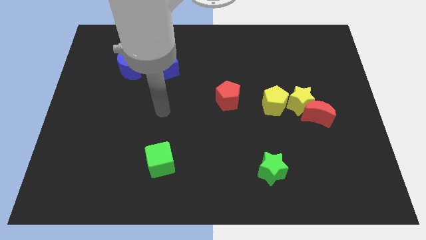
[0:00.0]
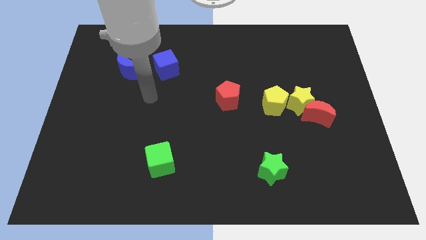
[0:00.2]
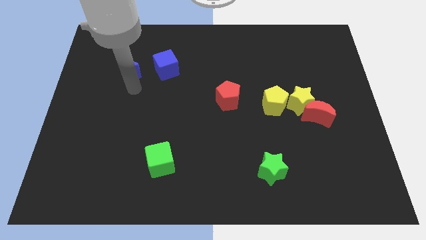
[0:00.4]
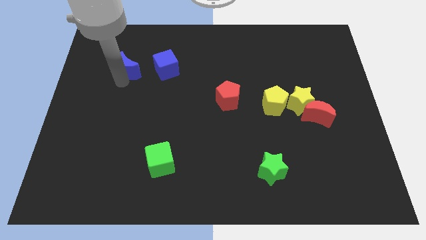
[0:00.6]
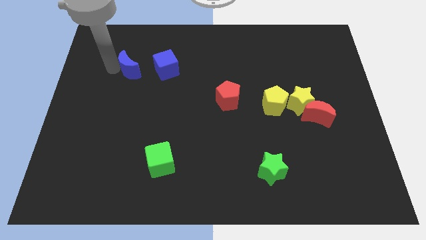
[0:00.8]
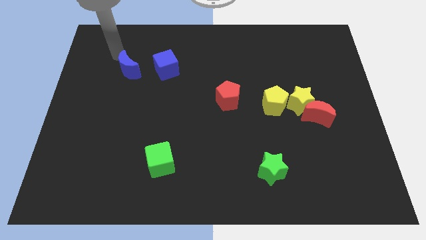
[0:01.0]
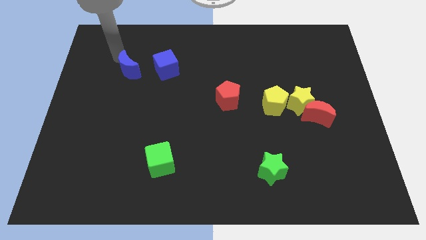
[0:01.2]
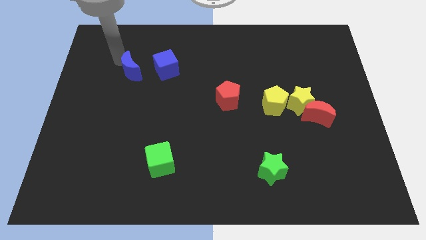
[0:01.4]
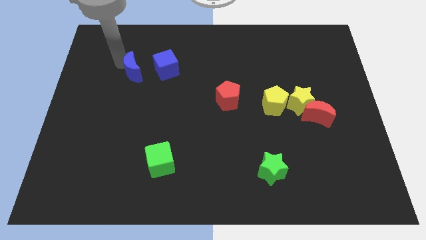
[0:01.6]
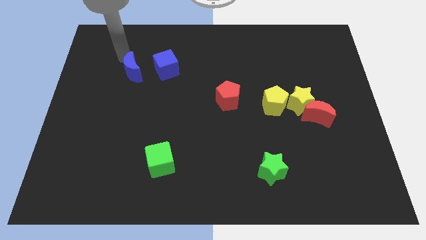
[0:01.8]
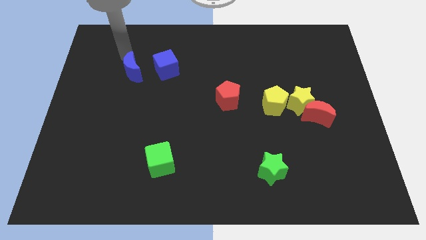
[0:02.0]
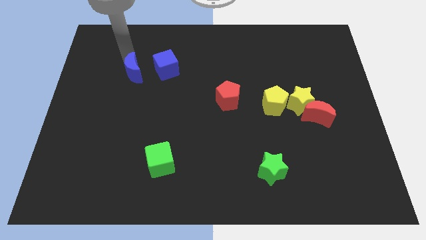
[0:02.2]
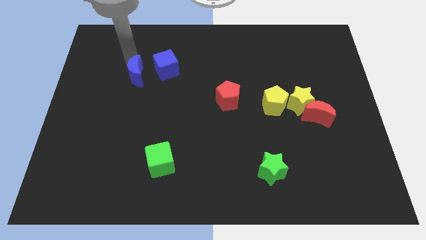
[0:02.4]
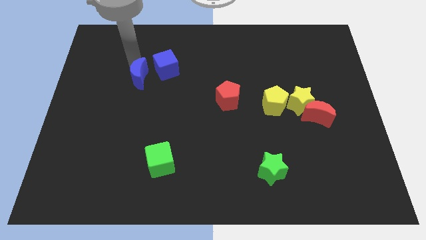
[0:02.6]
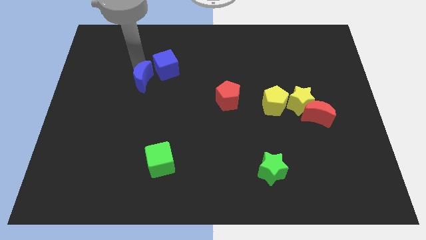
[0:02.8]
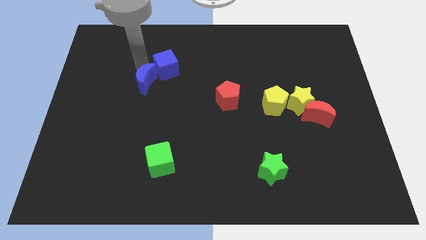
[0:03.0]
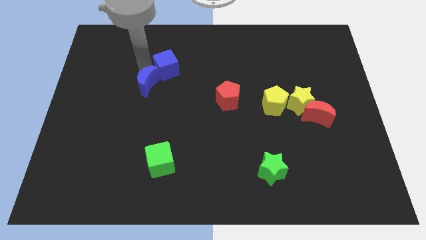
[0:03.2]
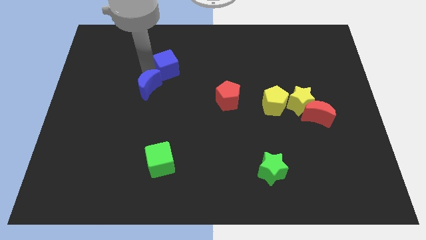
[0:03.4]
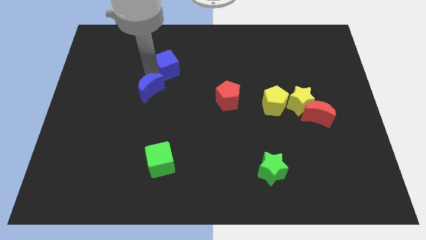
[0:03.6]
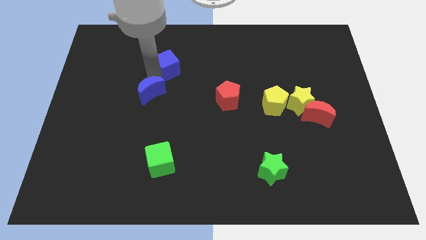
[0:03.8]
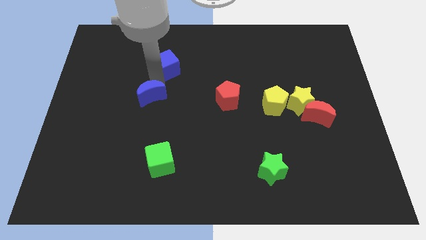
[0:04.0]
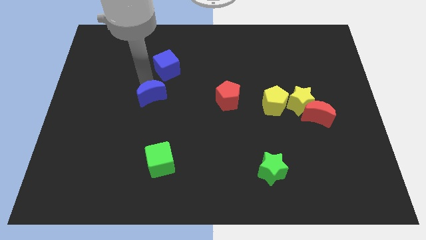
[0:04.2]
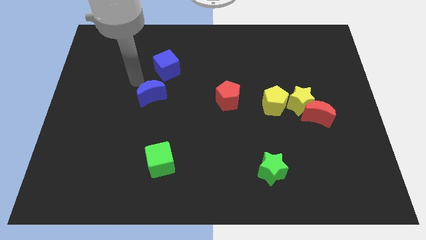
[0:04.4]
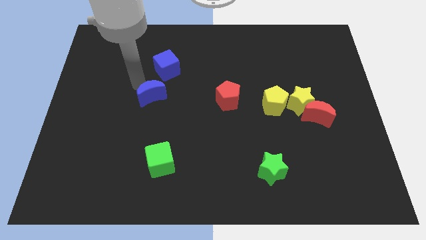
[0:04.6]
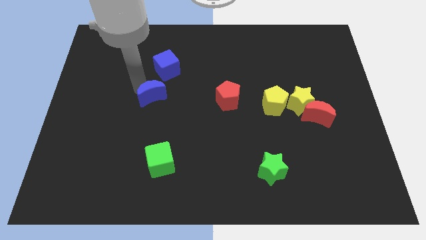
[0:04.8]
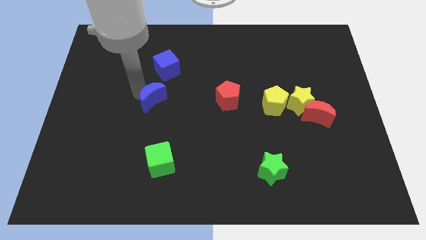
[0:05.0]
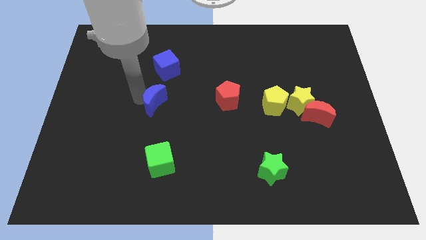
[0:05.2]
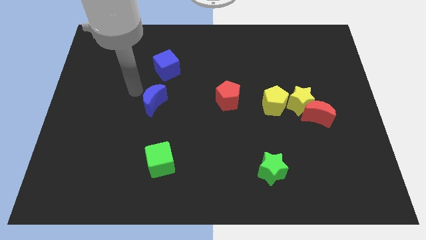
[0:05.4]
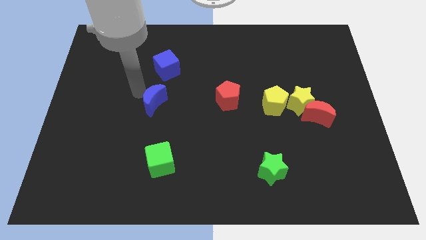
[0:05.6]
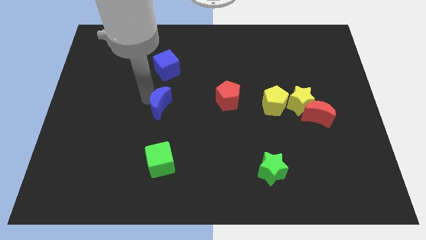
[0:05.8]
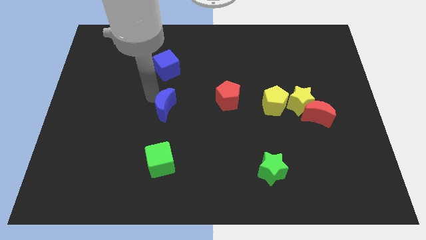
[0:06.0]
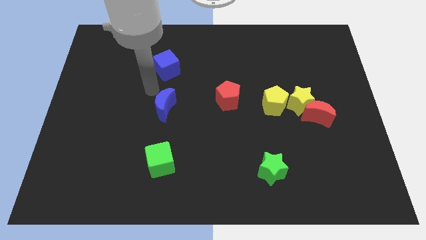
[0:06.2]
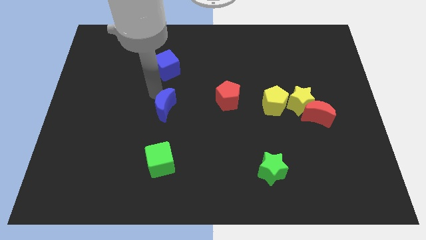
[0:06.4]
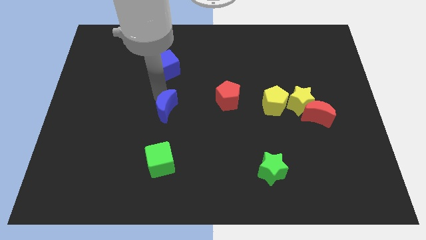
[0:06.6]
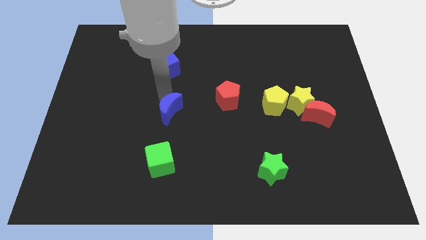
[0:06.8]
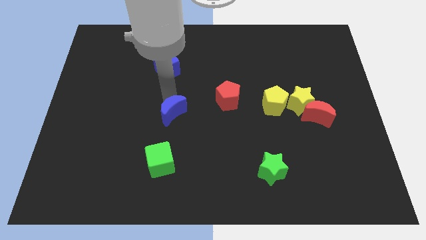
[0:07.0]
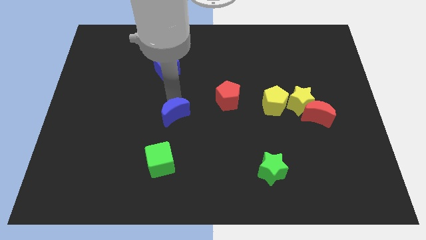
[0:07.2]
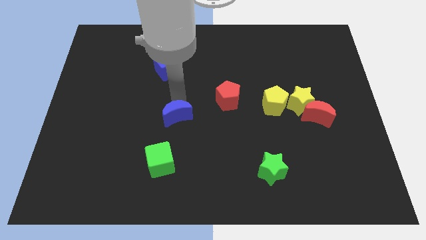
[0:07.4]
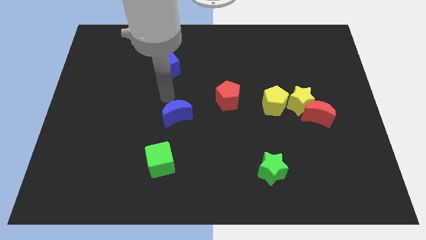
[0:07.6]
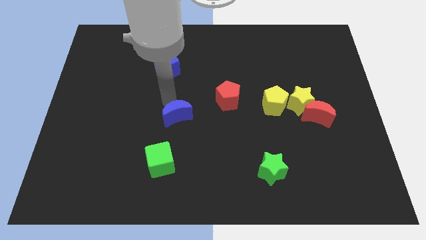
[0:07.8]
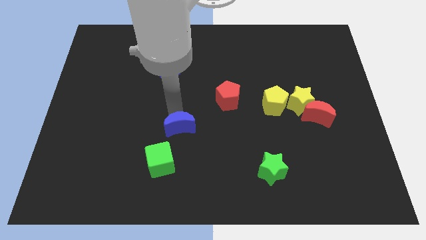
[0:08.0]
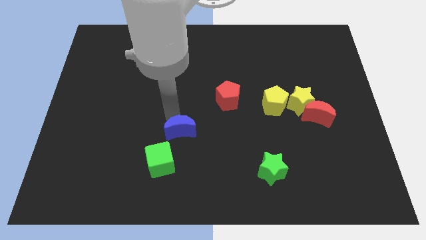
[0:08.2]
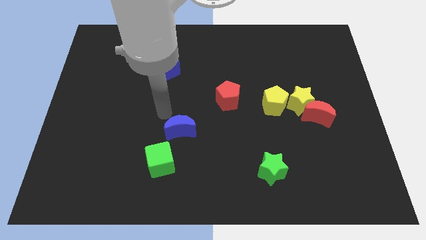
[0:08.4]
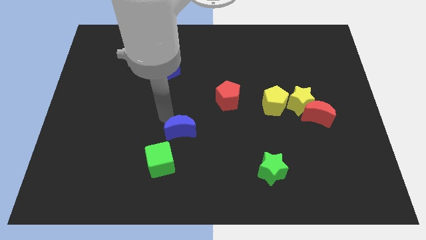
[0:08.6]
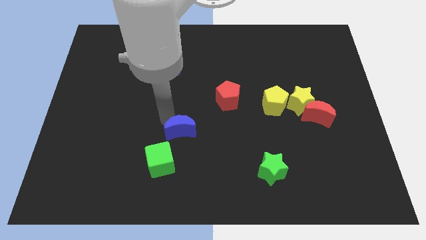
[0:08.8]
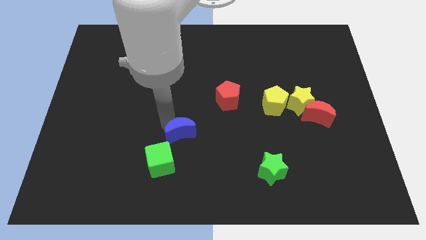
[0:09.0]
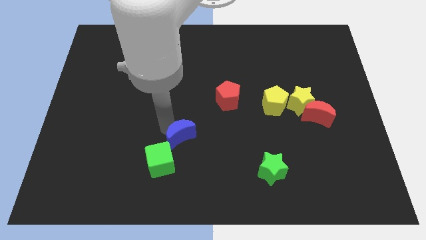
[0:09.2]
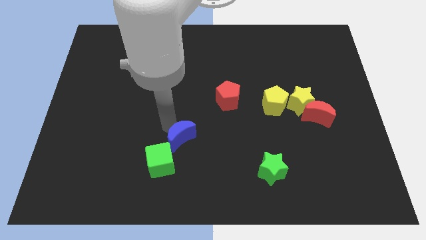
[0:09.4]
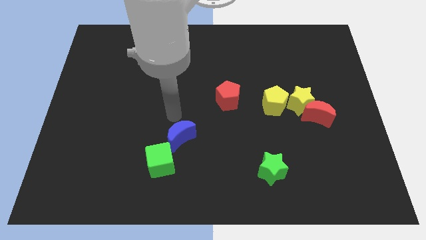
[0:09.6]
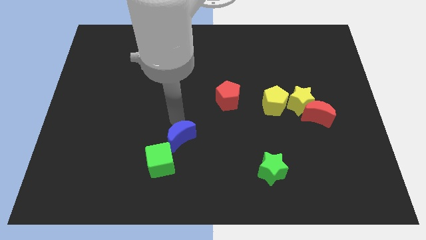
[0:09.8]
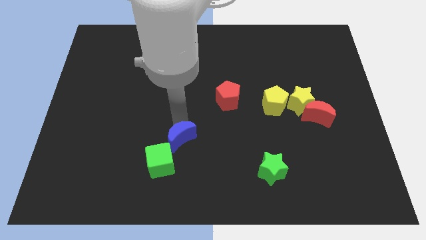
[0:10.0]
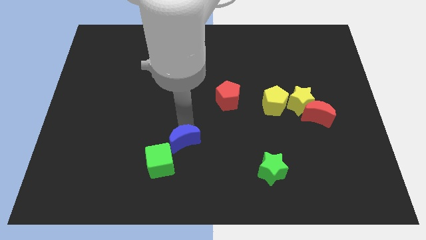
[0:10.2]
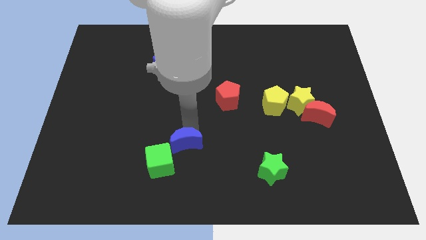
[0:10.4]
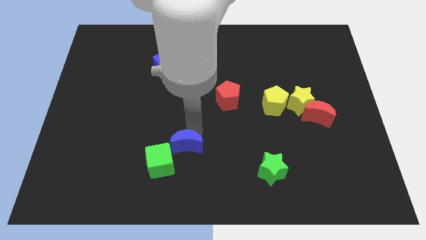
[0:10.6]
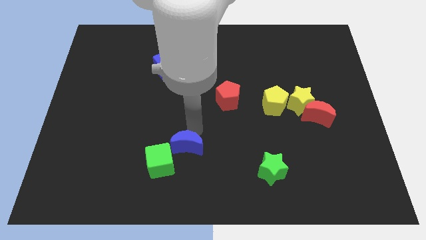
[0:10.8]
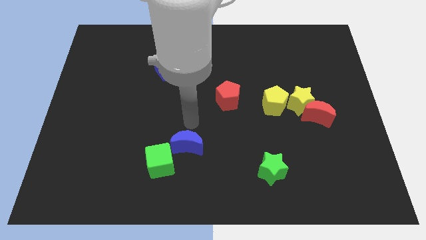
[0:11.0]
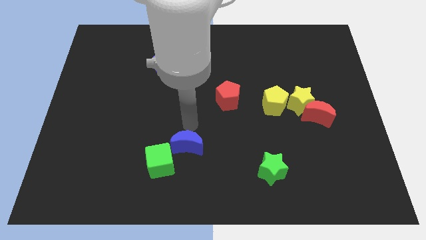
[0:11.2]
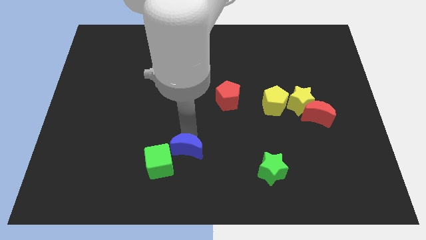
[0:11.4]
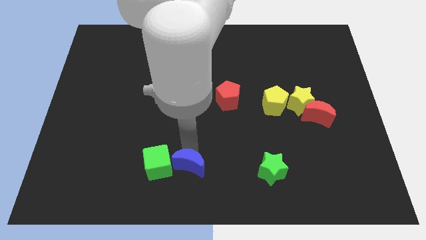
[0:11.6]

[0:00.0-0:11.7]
move the blue moon to the bottom right of the green cube

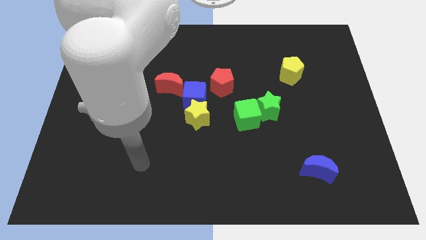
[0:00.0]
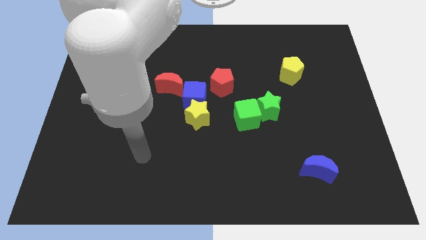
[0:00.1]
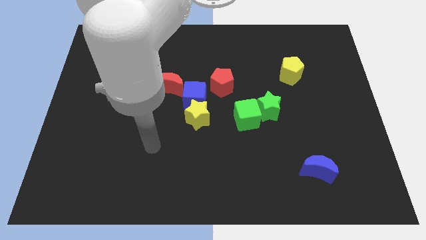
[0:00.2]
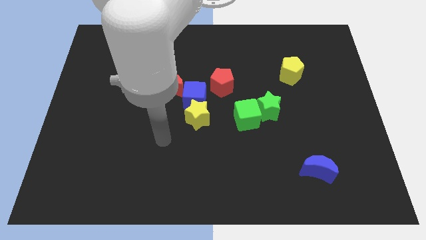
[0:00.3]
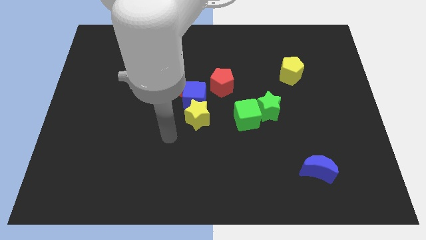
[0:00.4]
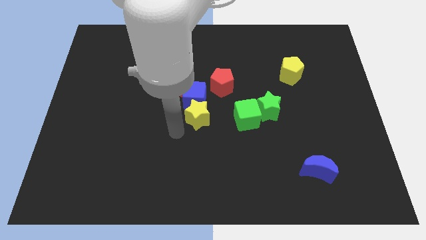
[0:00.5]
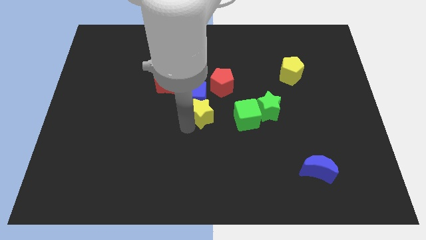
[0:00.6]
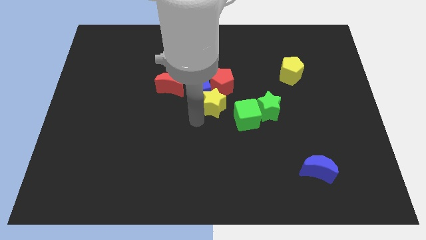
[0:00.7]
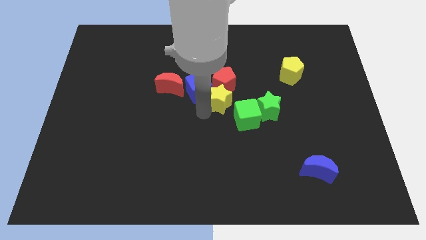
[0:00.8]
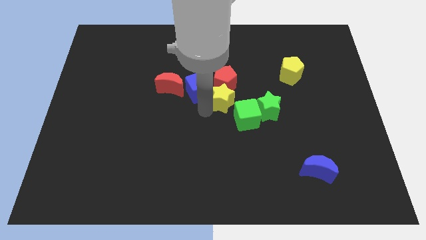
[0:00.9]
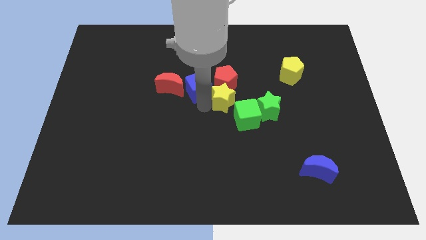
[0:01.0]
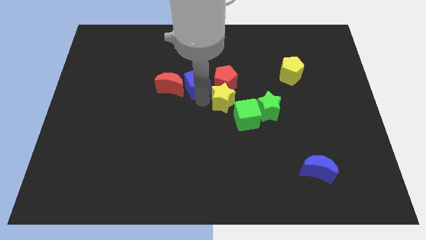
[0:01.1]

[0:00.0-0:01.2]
move the blue cube to the top right side of the red moon
